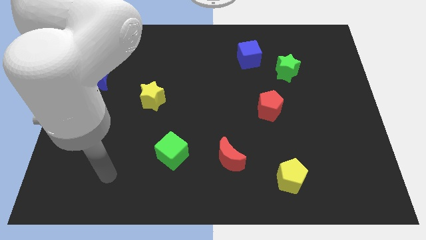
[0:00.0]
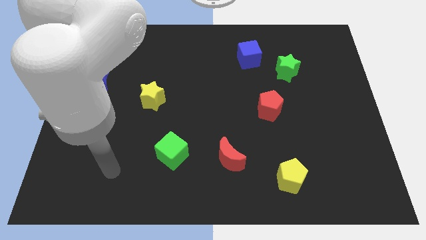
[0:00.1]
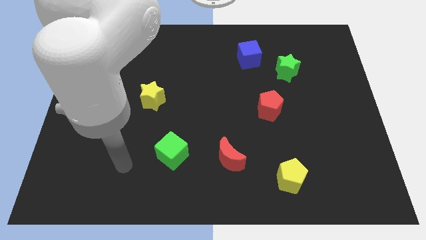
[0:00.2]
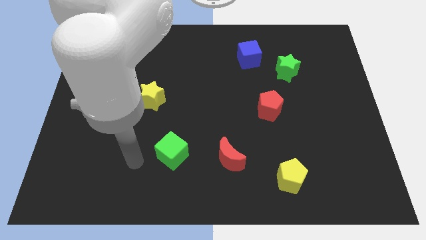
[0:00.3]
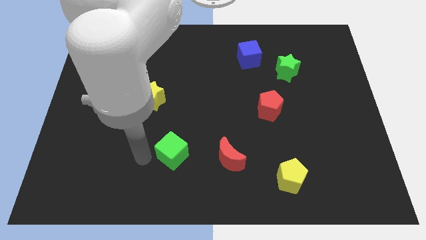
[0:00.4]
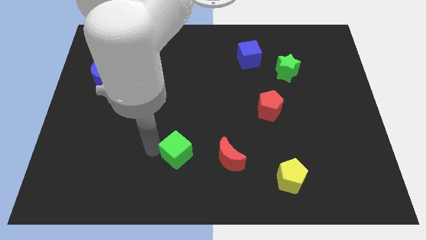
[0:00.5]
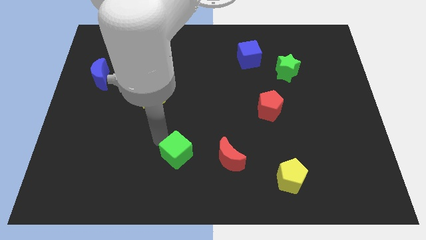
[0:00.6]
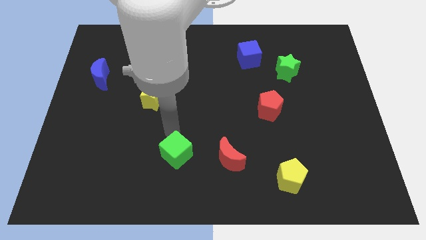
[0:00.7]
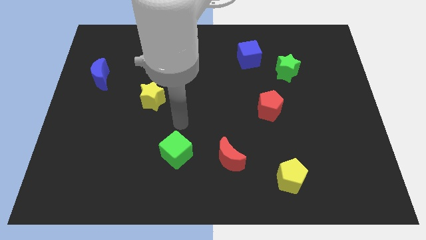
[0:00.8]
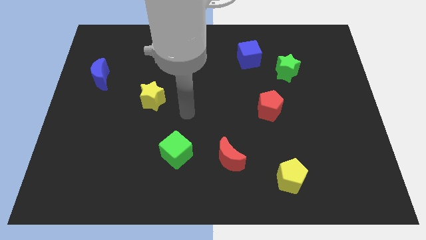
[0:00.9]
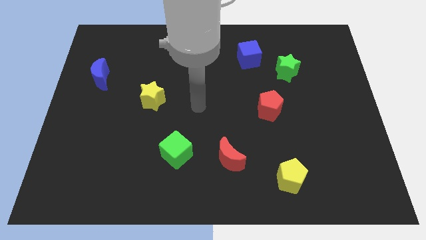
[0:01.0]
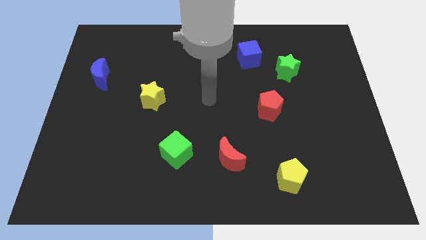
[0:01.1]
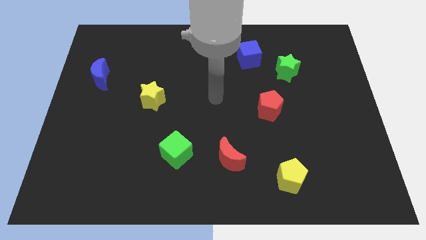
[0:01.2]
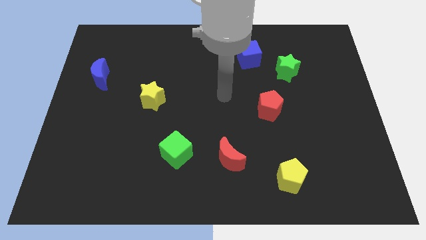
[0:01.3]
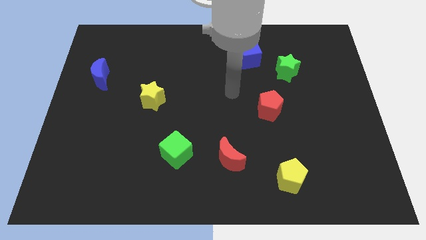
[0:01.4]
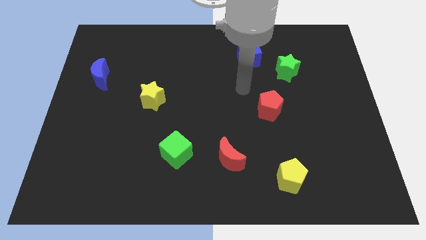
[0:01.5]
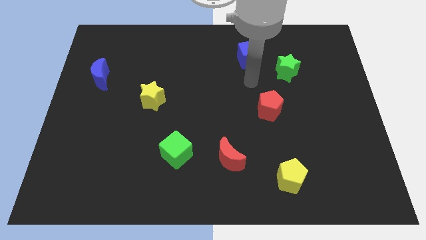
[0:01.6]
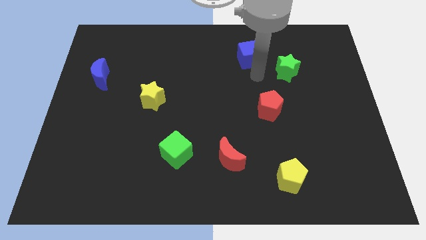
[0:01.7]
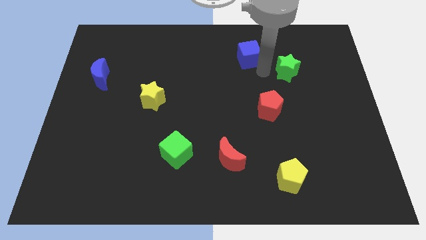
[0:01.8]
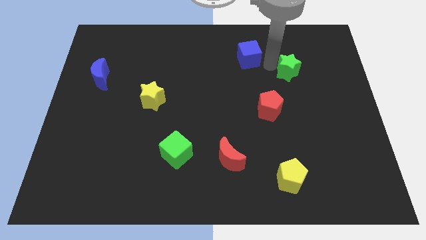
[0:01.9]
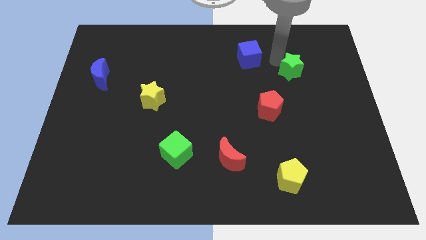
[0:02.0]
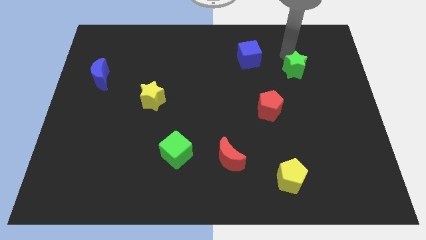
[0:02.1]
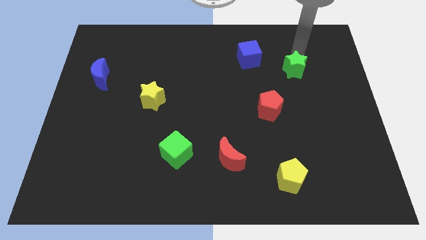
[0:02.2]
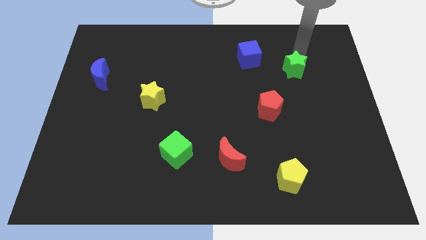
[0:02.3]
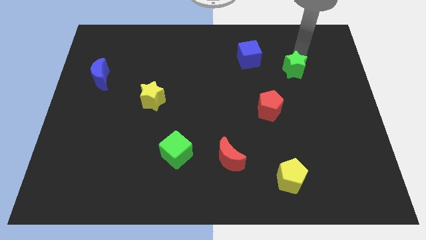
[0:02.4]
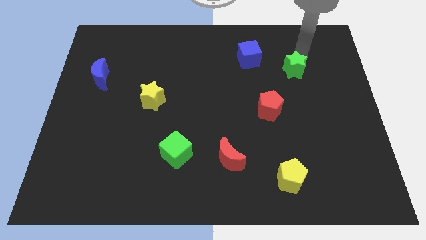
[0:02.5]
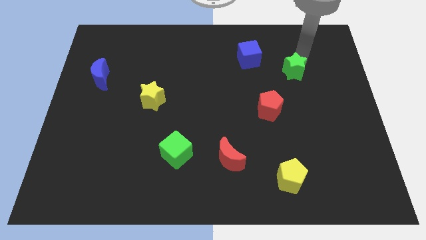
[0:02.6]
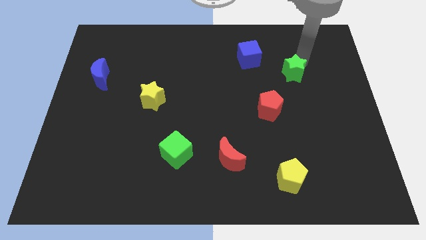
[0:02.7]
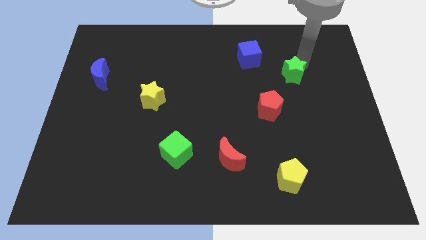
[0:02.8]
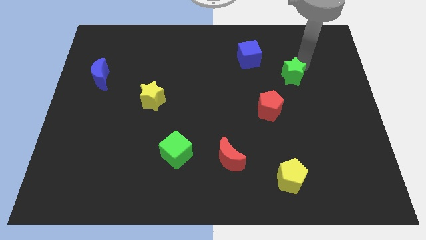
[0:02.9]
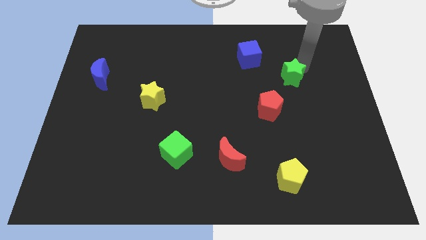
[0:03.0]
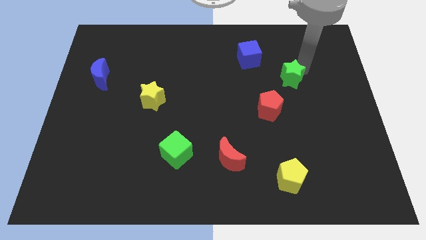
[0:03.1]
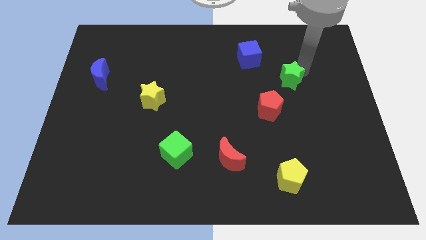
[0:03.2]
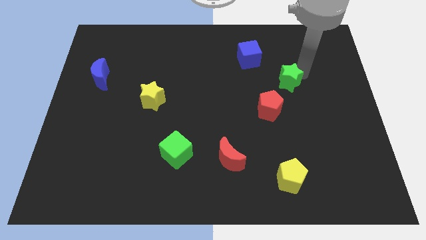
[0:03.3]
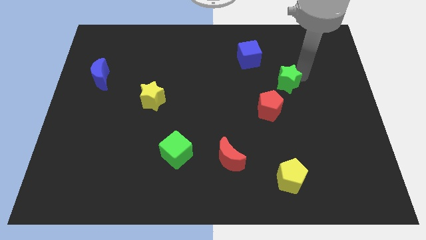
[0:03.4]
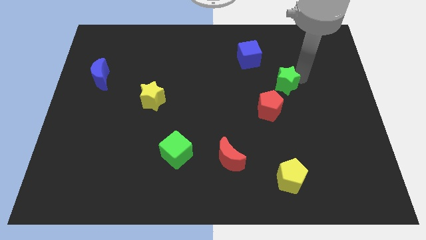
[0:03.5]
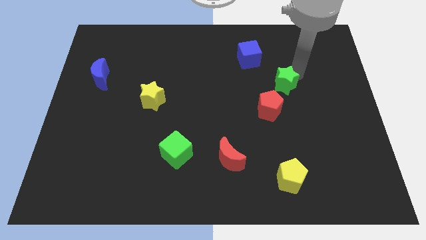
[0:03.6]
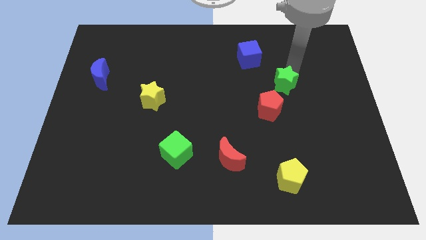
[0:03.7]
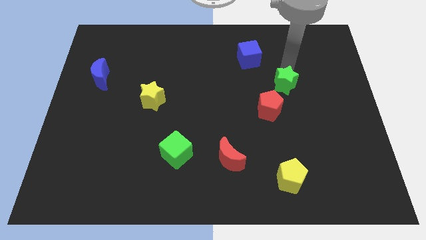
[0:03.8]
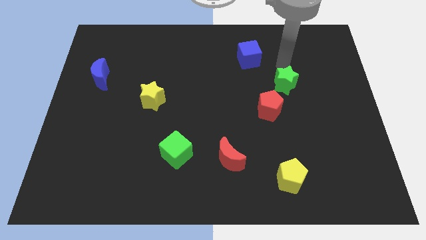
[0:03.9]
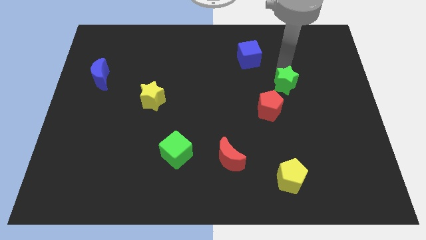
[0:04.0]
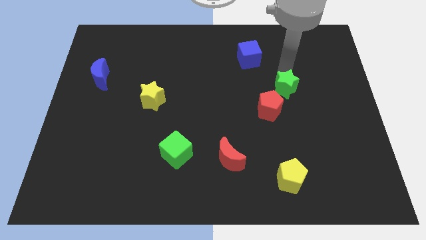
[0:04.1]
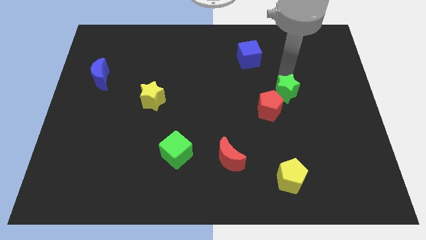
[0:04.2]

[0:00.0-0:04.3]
slightly move the green star down

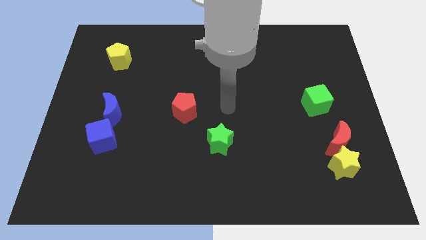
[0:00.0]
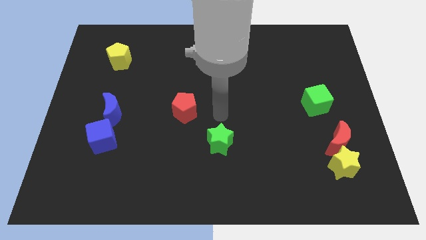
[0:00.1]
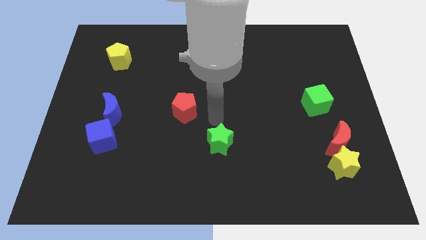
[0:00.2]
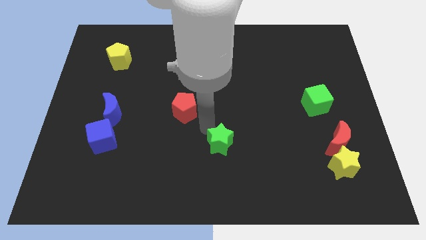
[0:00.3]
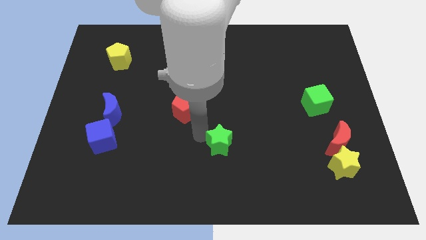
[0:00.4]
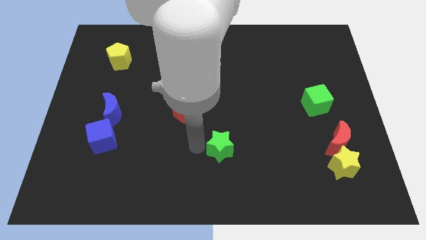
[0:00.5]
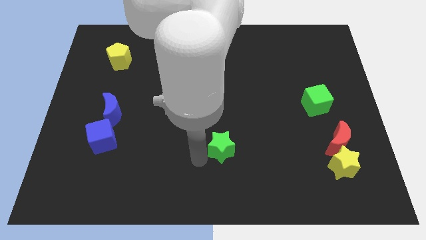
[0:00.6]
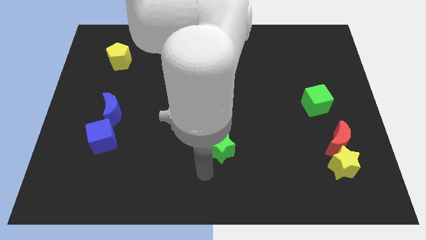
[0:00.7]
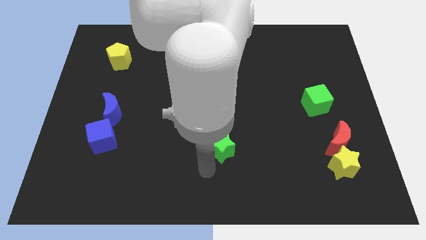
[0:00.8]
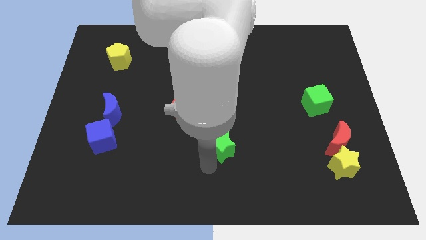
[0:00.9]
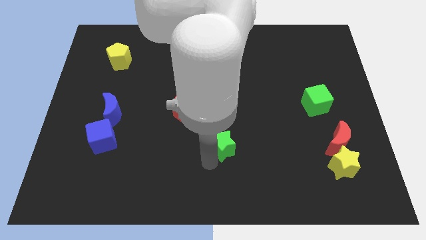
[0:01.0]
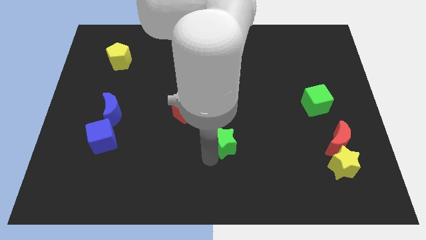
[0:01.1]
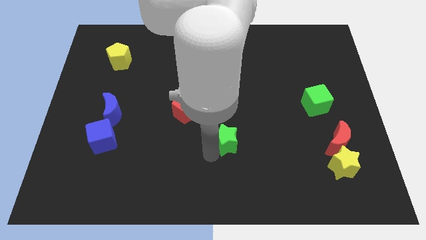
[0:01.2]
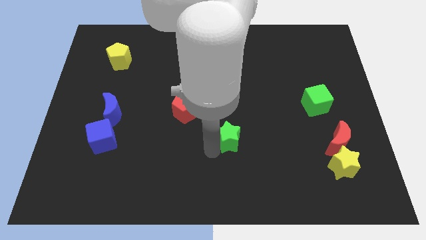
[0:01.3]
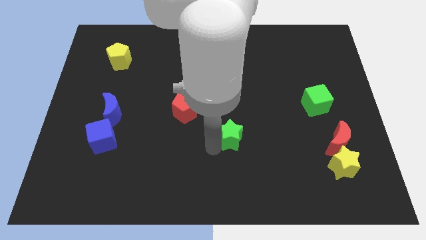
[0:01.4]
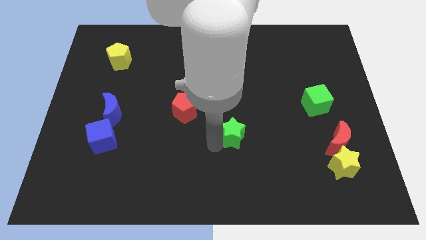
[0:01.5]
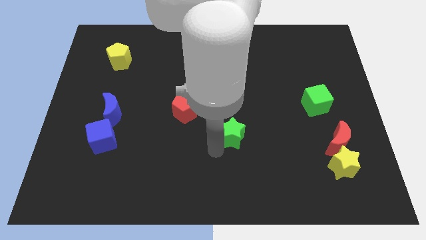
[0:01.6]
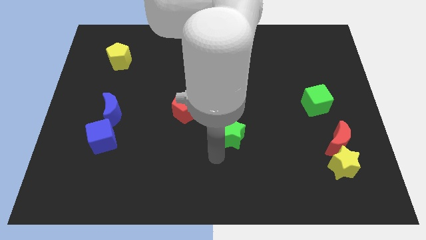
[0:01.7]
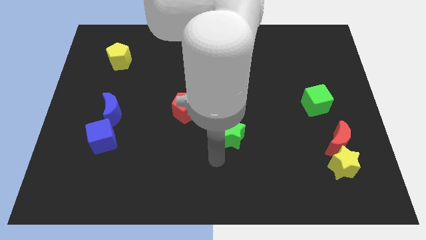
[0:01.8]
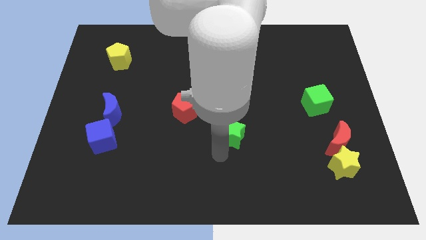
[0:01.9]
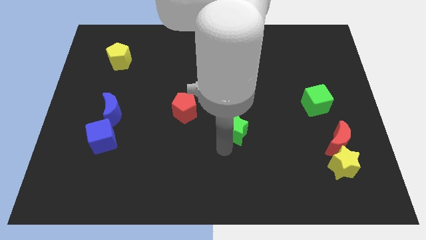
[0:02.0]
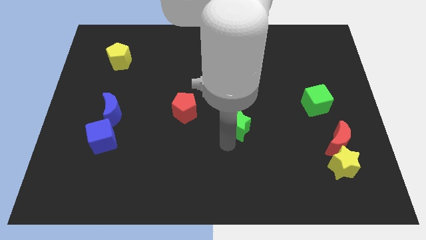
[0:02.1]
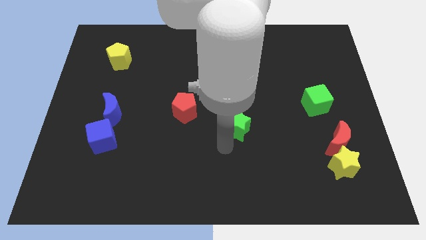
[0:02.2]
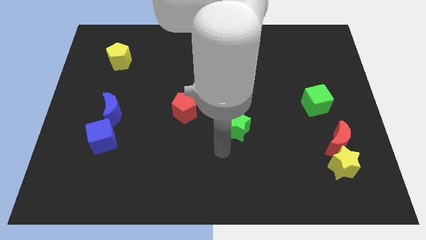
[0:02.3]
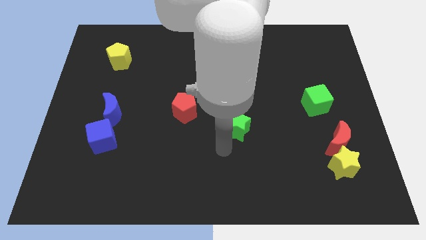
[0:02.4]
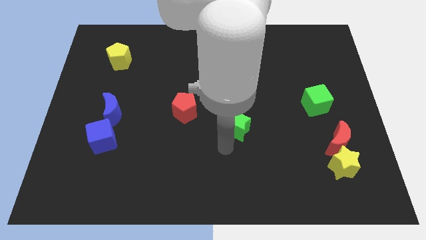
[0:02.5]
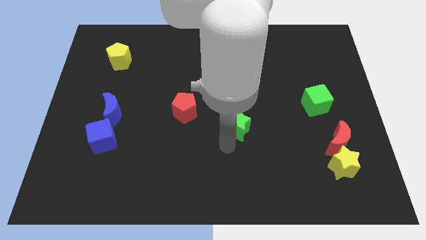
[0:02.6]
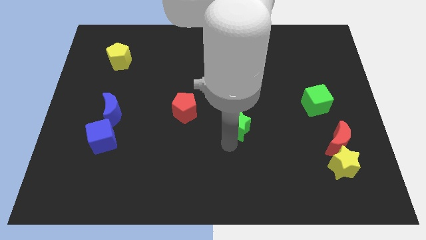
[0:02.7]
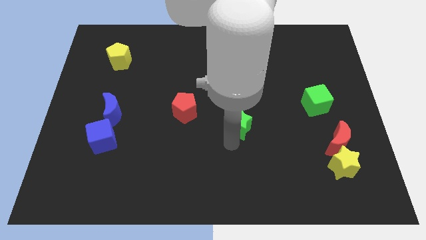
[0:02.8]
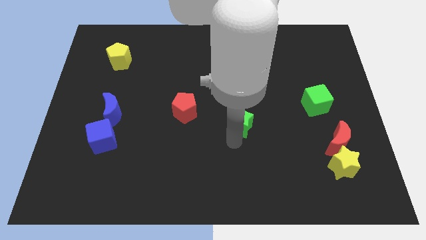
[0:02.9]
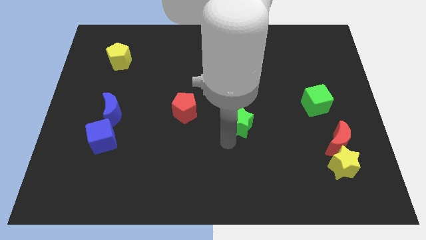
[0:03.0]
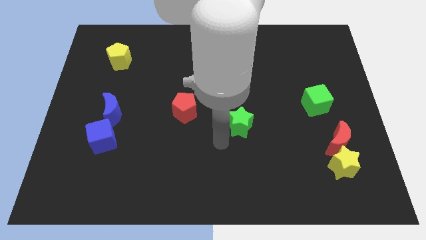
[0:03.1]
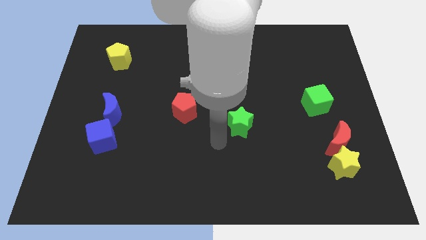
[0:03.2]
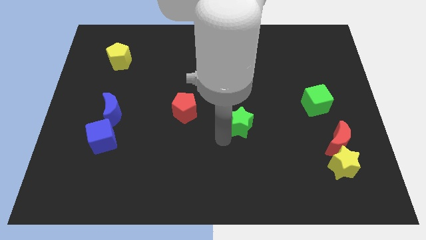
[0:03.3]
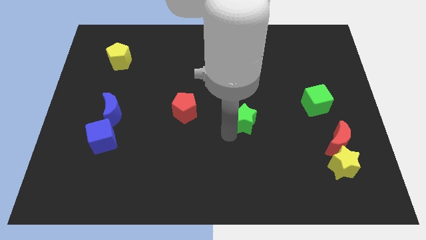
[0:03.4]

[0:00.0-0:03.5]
move the green star diagonally upwards and to the right a little

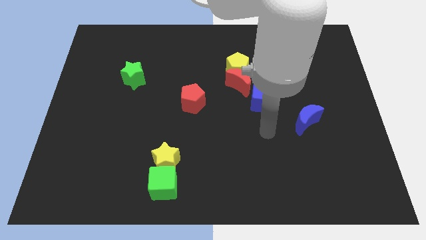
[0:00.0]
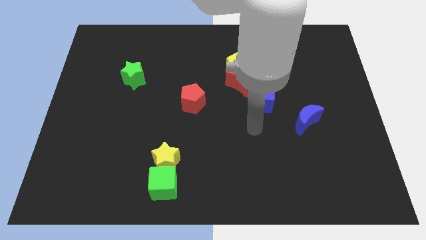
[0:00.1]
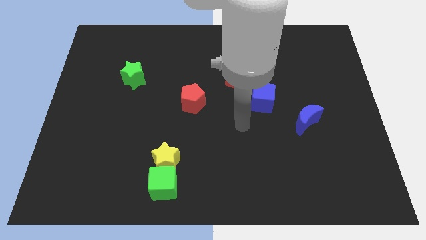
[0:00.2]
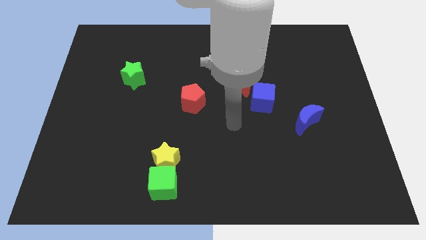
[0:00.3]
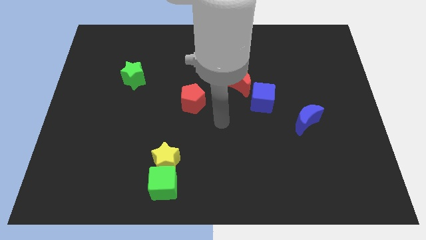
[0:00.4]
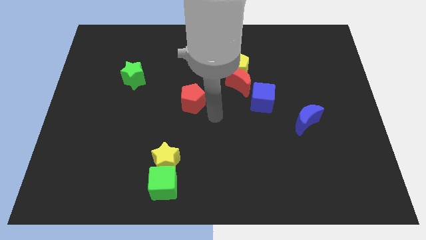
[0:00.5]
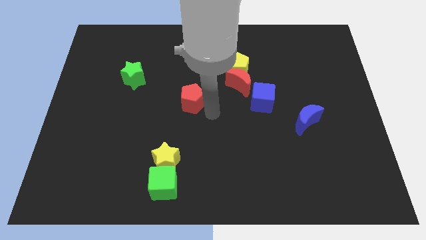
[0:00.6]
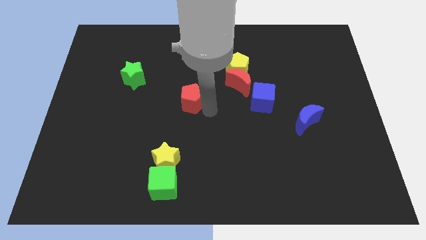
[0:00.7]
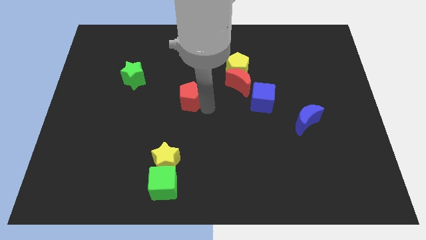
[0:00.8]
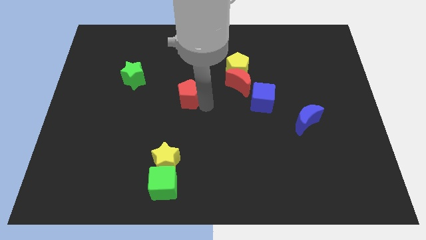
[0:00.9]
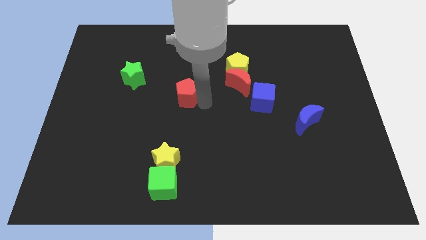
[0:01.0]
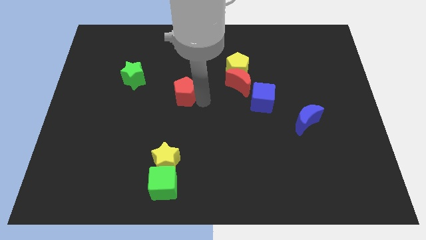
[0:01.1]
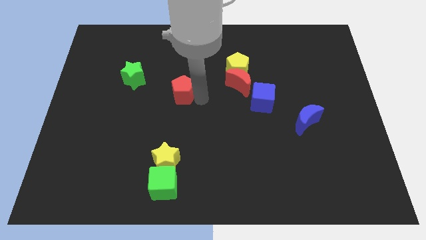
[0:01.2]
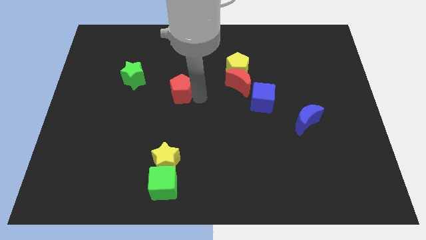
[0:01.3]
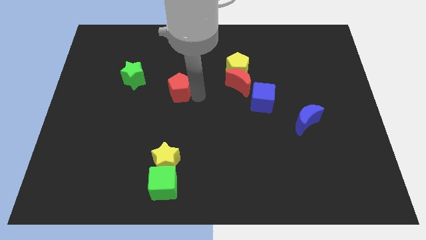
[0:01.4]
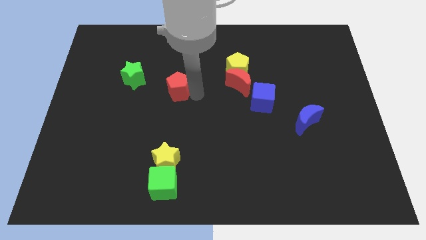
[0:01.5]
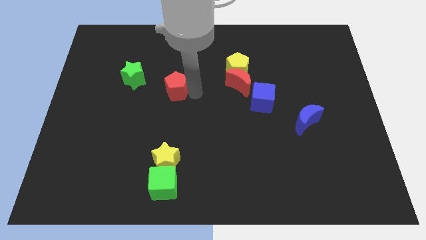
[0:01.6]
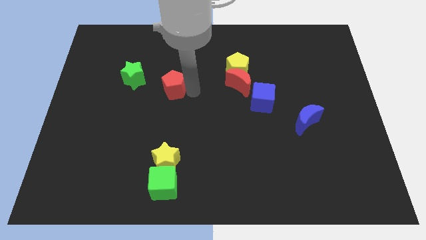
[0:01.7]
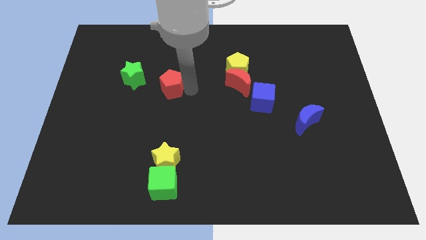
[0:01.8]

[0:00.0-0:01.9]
push the red pentagon up and then left slightly
